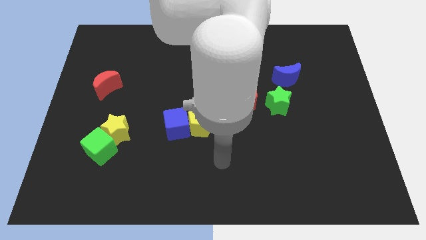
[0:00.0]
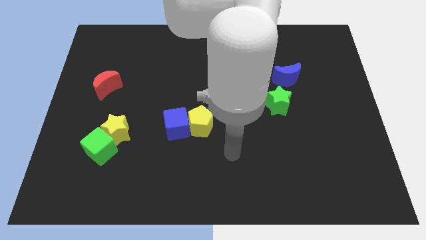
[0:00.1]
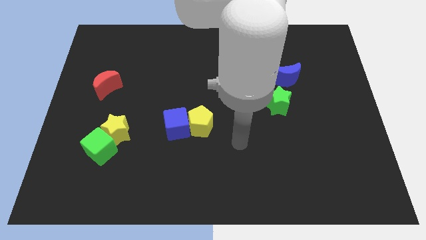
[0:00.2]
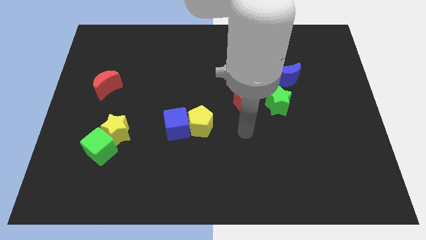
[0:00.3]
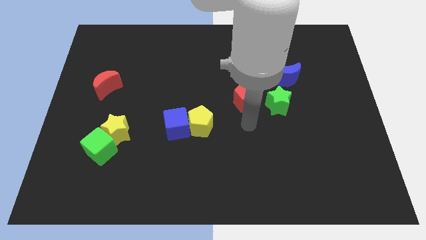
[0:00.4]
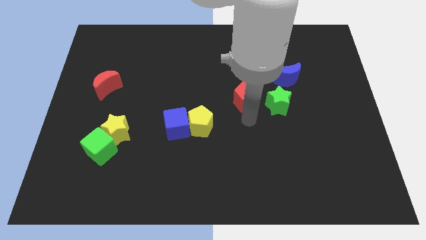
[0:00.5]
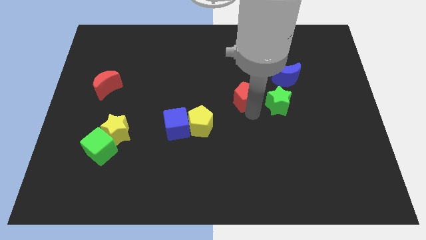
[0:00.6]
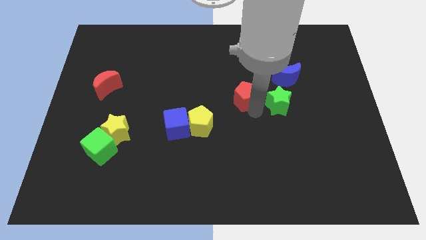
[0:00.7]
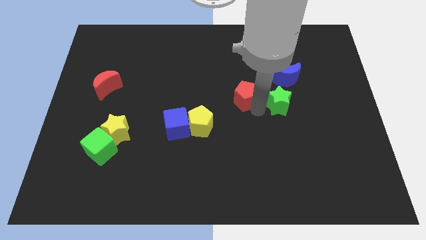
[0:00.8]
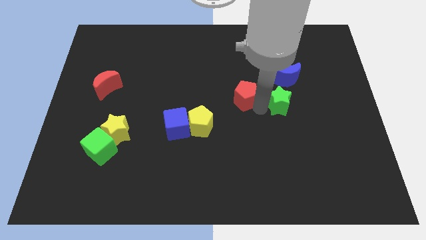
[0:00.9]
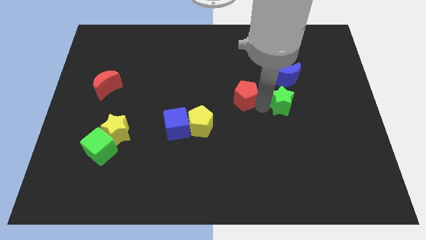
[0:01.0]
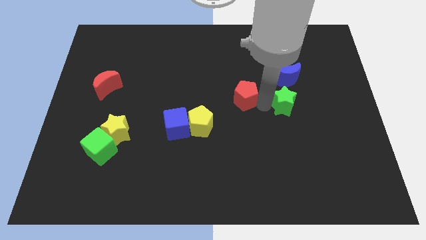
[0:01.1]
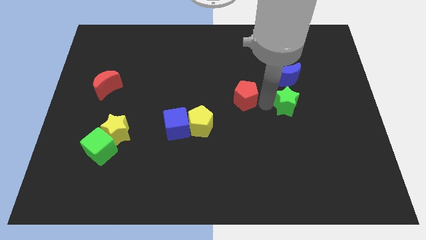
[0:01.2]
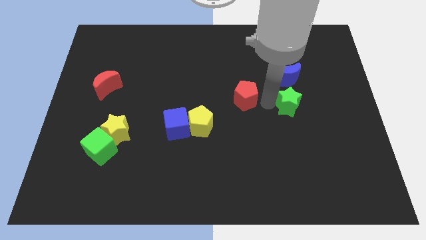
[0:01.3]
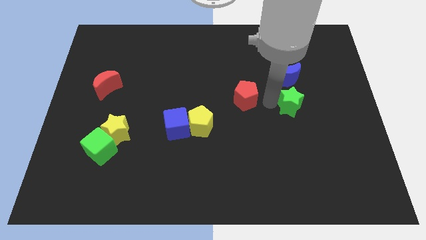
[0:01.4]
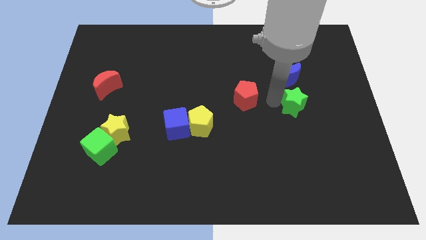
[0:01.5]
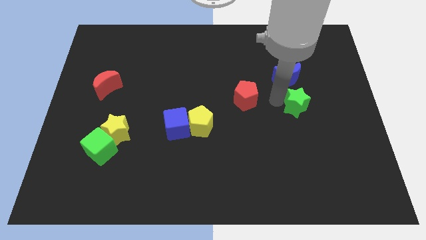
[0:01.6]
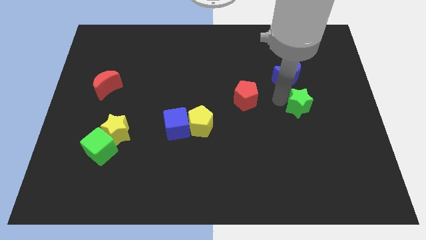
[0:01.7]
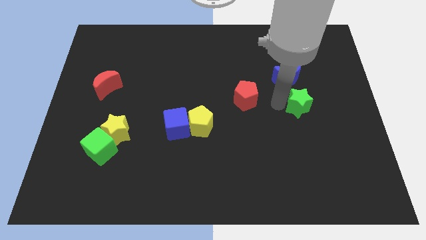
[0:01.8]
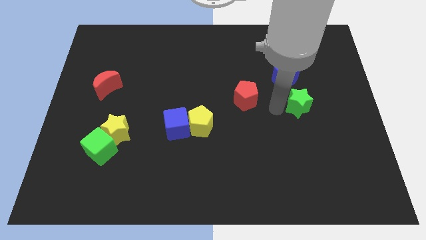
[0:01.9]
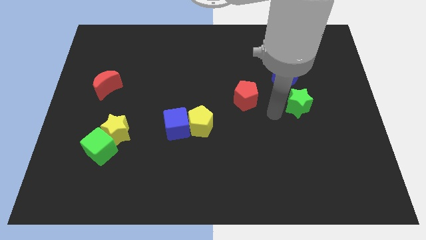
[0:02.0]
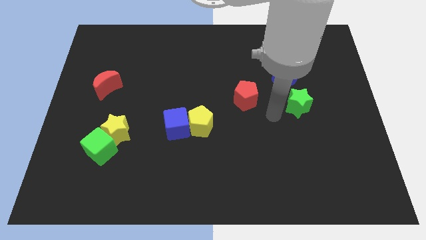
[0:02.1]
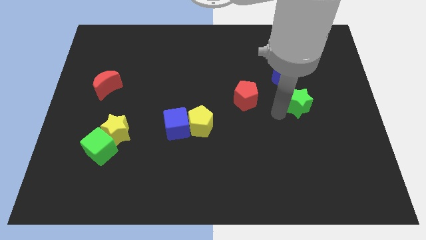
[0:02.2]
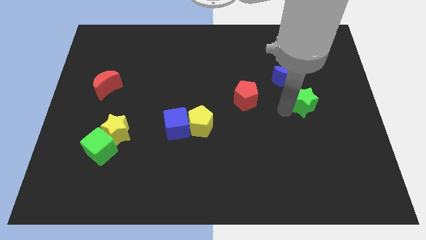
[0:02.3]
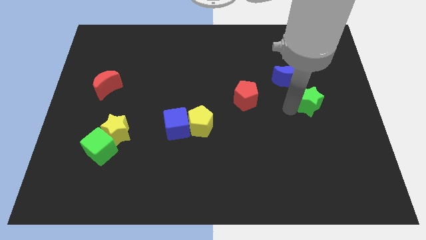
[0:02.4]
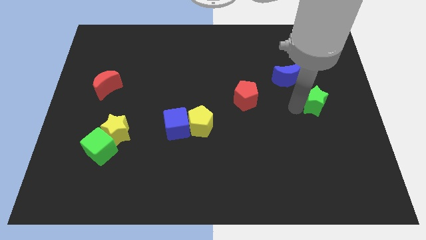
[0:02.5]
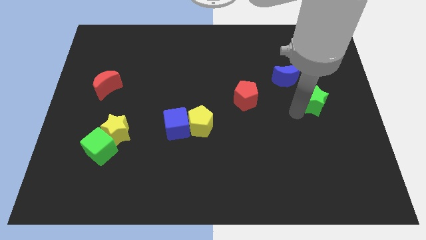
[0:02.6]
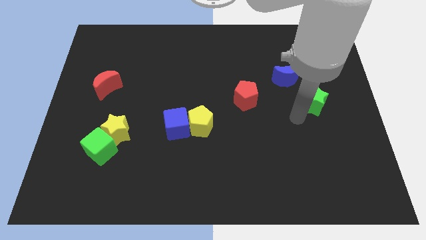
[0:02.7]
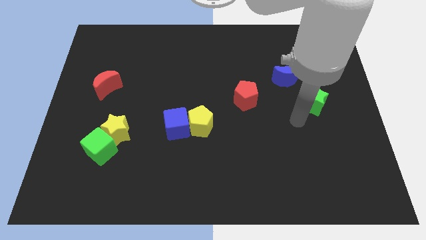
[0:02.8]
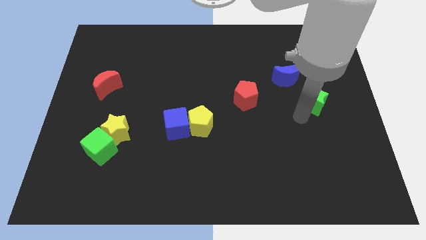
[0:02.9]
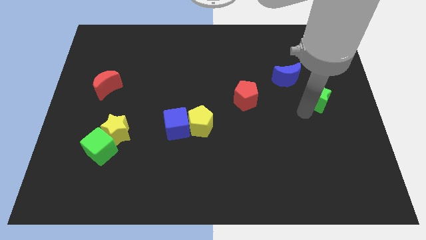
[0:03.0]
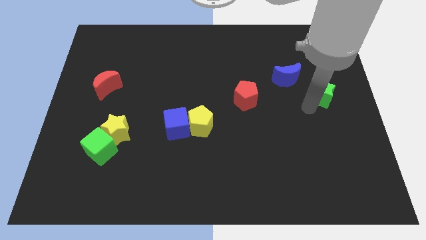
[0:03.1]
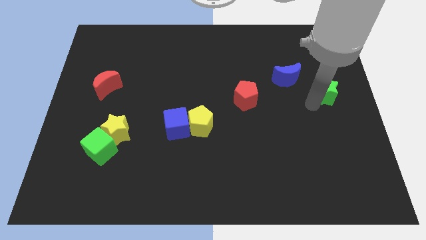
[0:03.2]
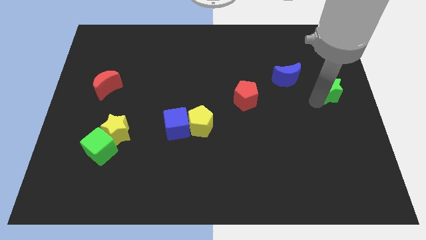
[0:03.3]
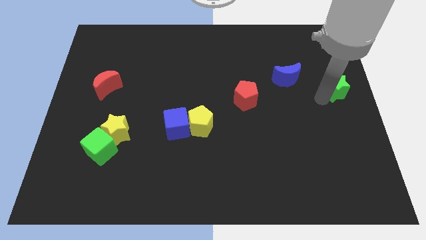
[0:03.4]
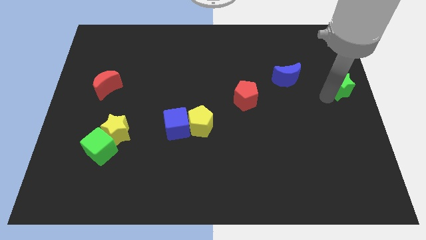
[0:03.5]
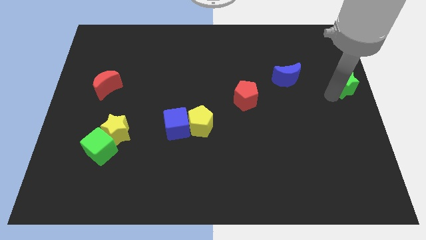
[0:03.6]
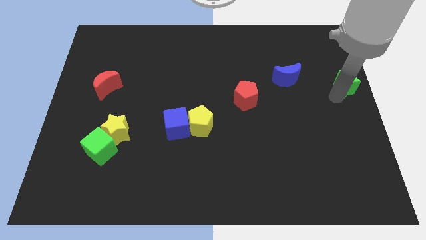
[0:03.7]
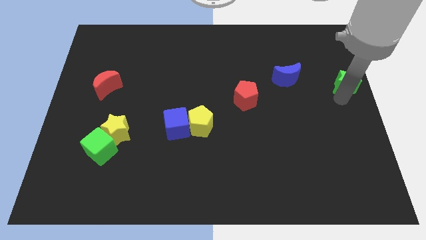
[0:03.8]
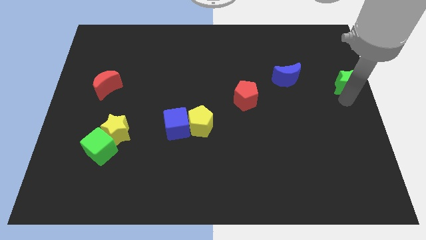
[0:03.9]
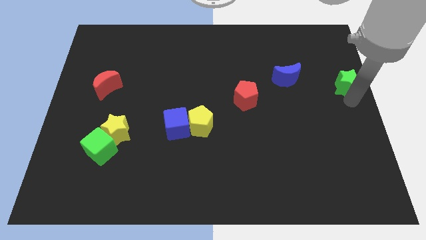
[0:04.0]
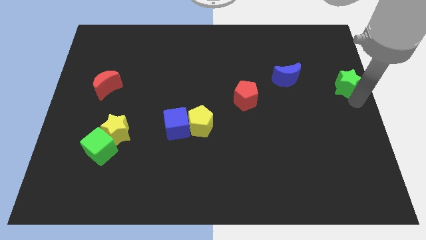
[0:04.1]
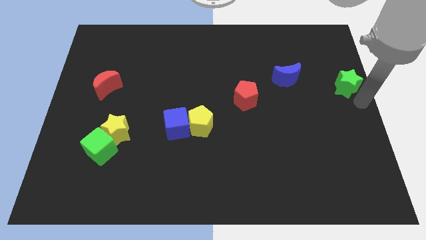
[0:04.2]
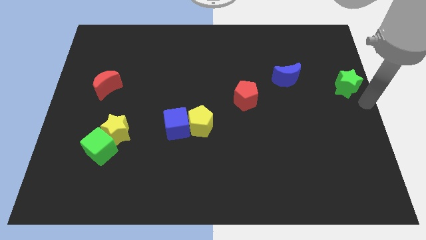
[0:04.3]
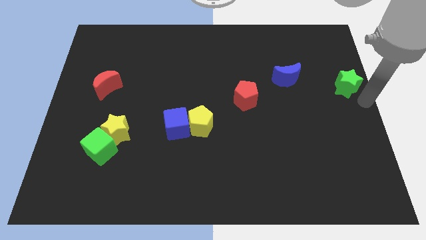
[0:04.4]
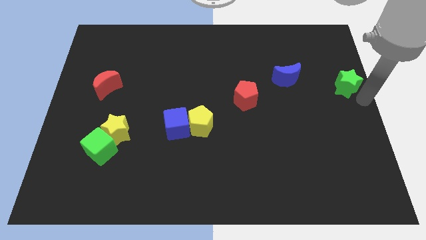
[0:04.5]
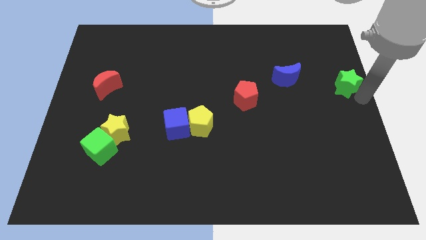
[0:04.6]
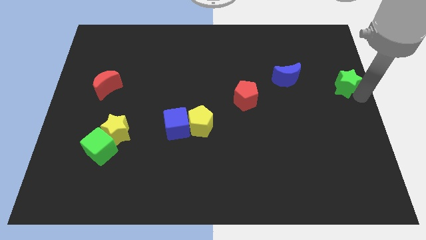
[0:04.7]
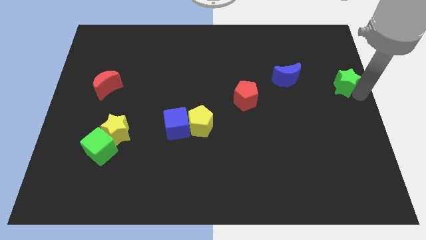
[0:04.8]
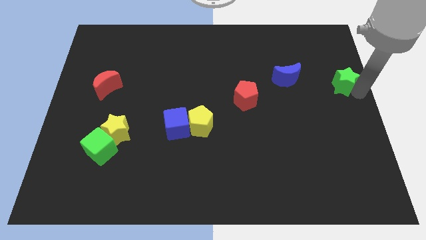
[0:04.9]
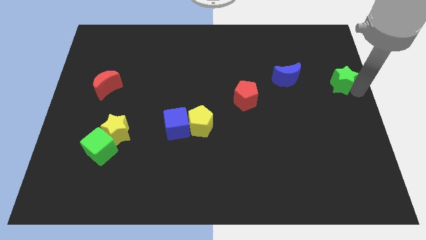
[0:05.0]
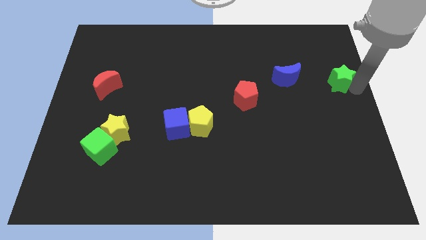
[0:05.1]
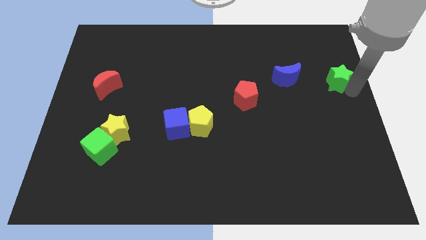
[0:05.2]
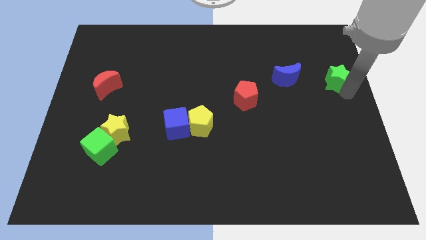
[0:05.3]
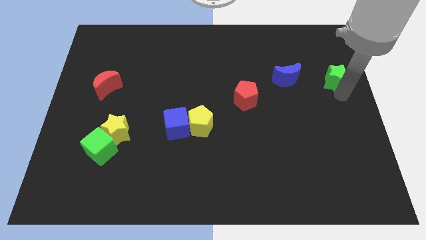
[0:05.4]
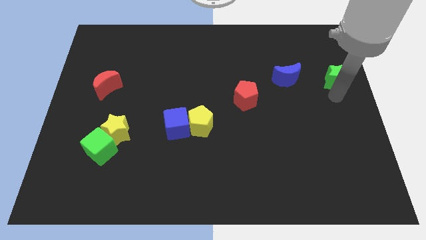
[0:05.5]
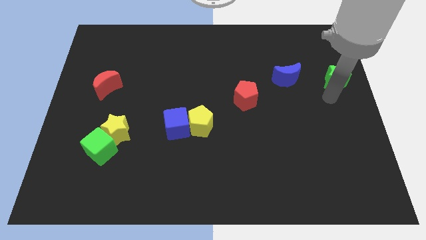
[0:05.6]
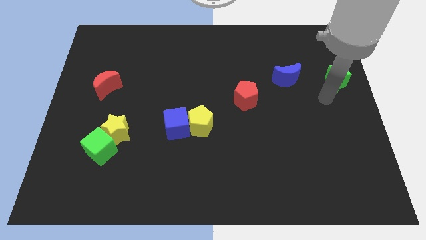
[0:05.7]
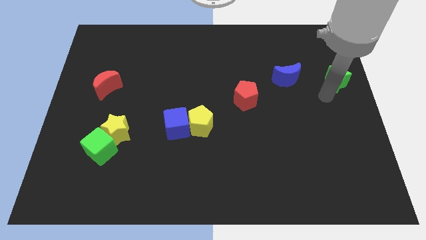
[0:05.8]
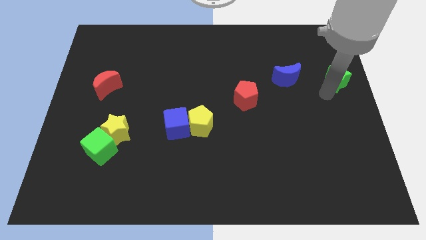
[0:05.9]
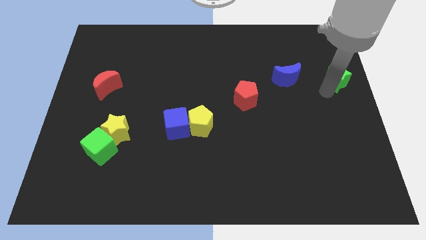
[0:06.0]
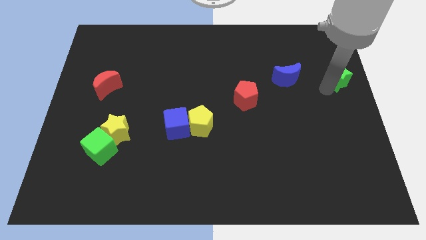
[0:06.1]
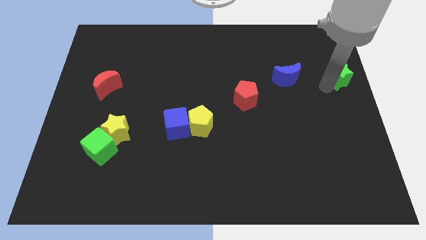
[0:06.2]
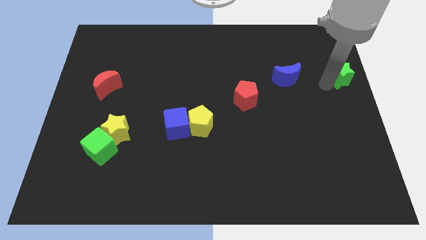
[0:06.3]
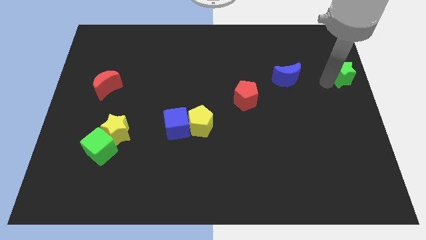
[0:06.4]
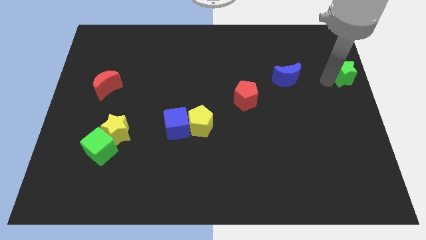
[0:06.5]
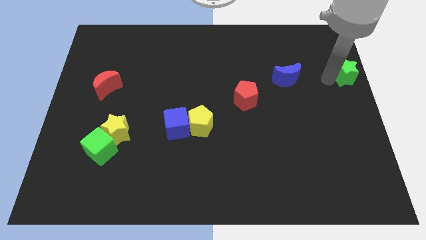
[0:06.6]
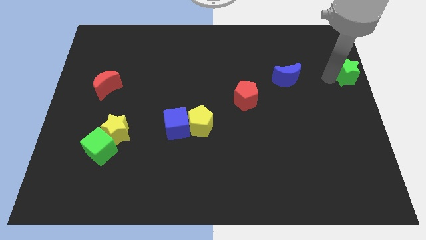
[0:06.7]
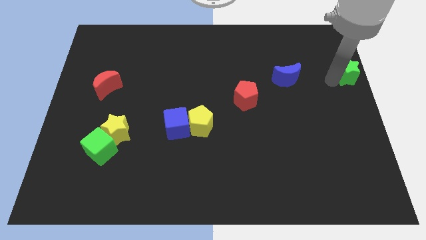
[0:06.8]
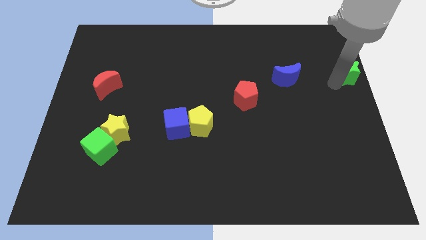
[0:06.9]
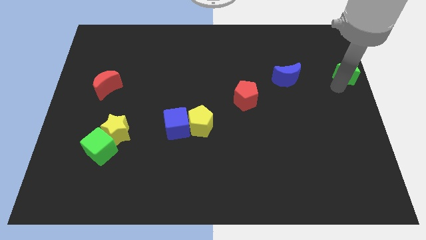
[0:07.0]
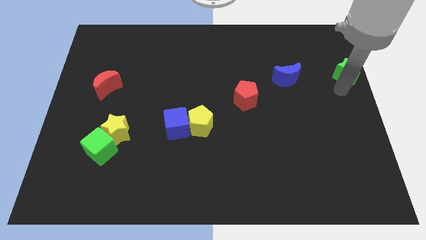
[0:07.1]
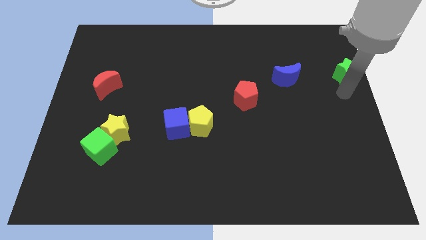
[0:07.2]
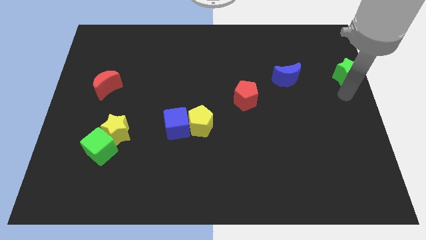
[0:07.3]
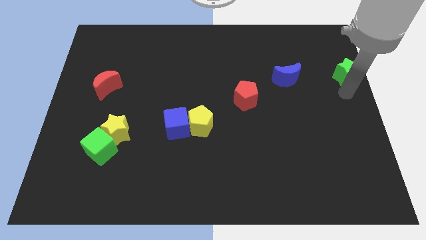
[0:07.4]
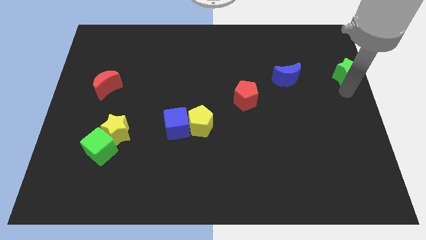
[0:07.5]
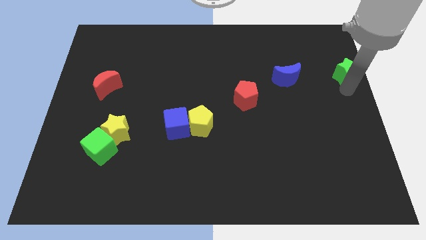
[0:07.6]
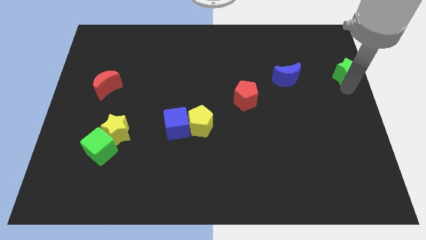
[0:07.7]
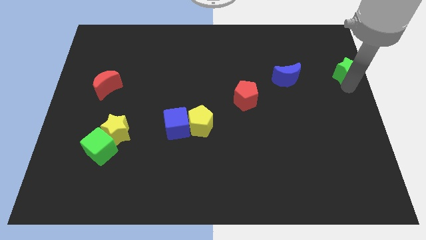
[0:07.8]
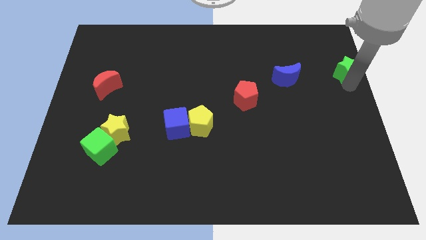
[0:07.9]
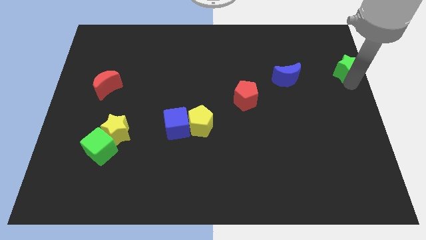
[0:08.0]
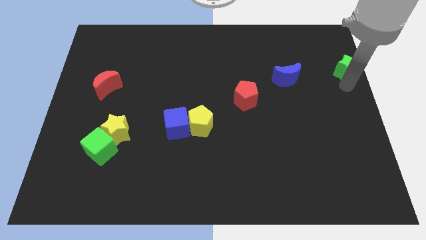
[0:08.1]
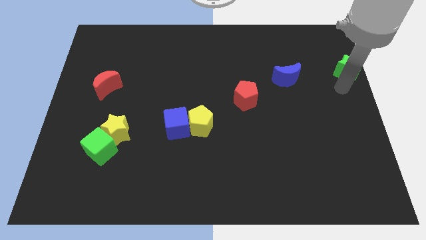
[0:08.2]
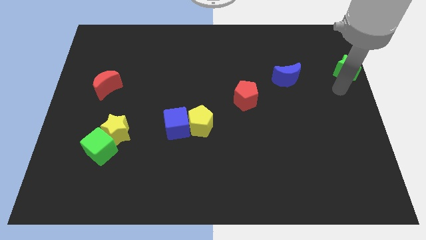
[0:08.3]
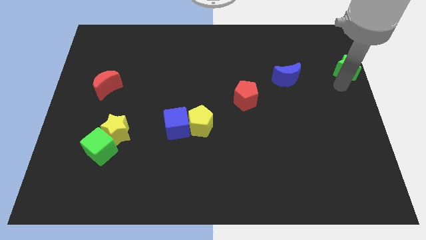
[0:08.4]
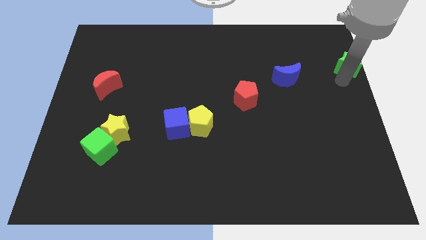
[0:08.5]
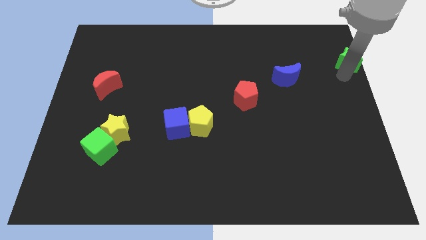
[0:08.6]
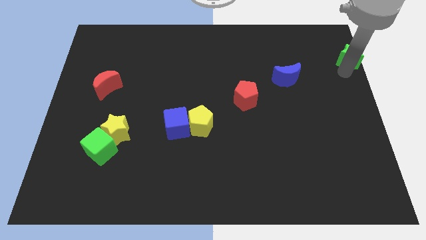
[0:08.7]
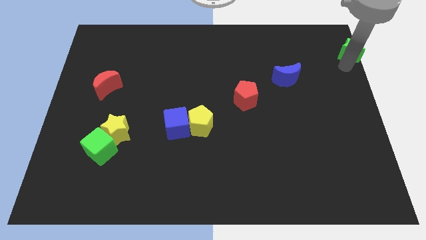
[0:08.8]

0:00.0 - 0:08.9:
slide the green star to the top right of the board
